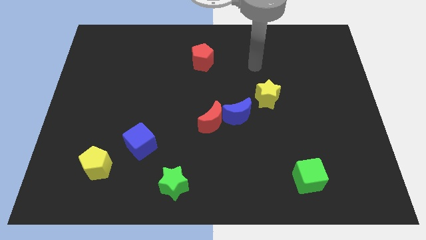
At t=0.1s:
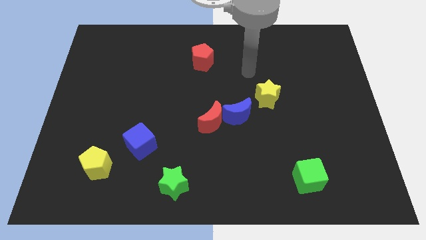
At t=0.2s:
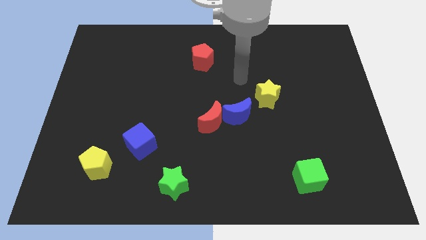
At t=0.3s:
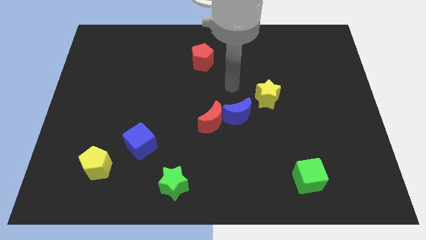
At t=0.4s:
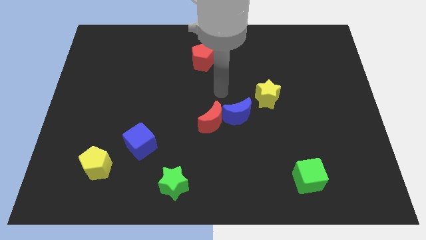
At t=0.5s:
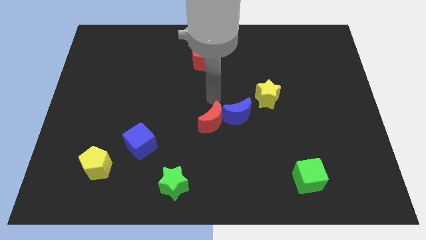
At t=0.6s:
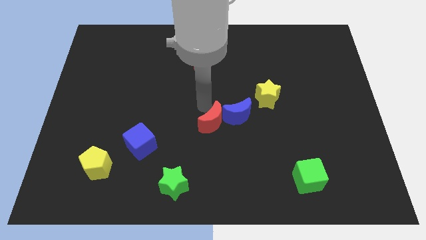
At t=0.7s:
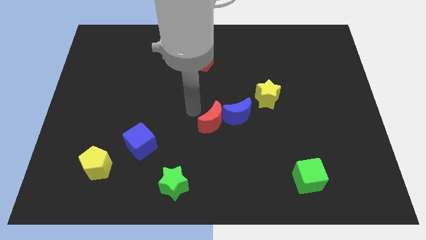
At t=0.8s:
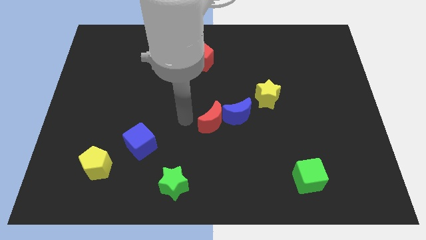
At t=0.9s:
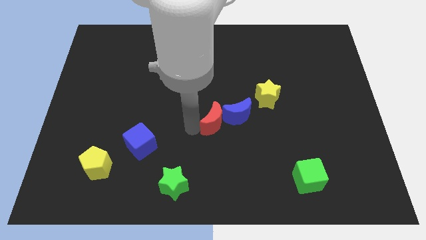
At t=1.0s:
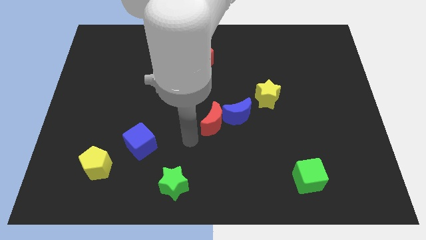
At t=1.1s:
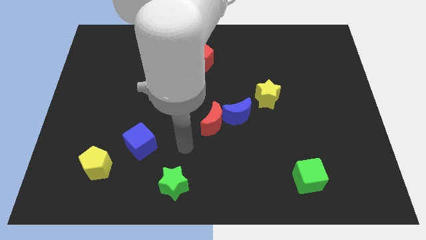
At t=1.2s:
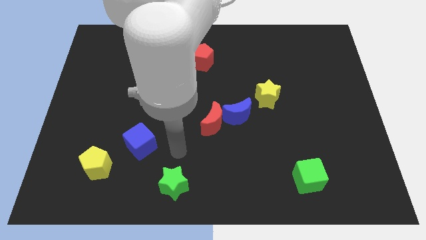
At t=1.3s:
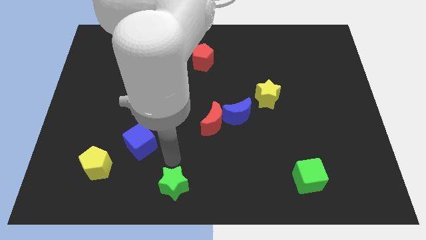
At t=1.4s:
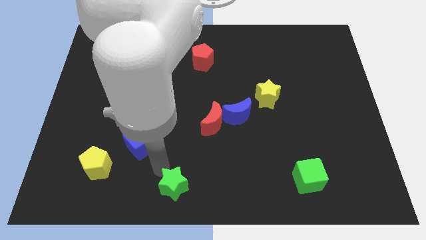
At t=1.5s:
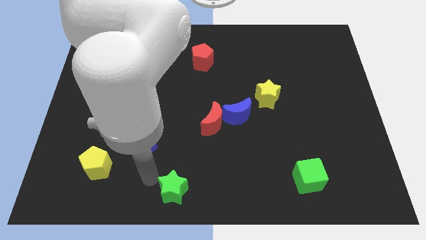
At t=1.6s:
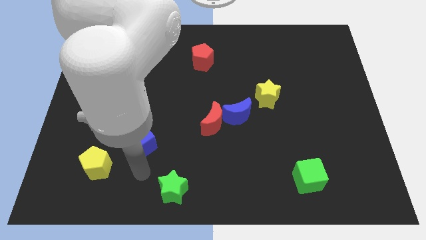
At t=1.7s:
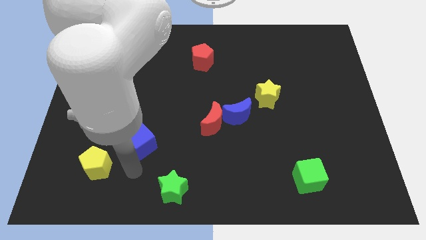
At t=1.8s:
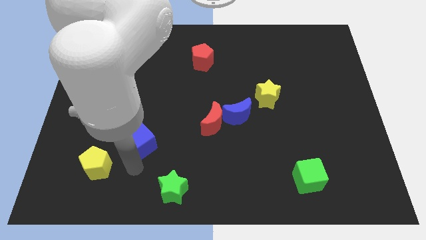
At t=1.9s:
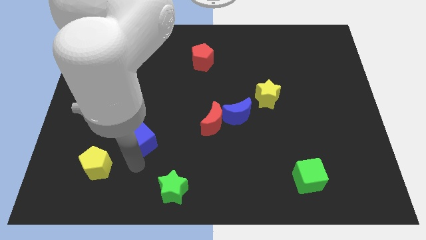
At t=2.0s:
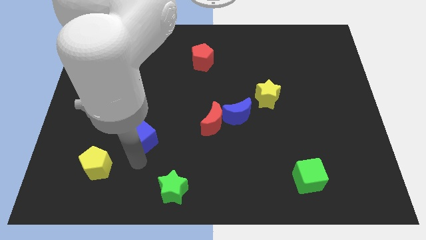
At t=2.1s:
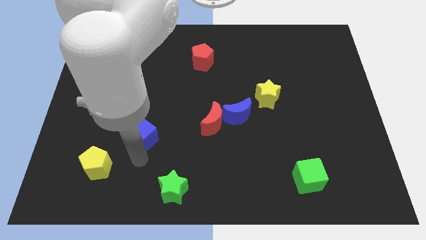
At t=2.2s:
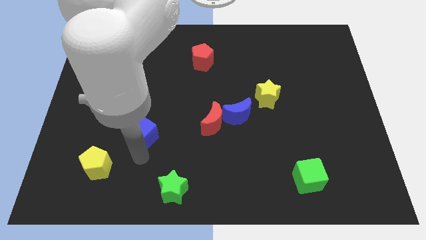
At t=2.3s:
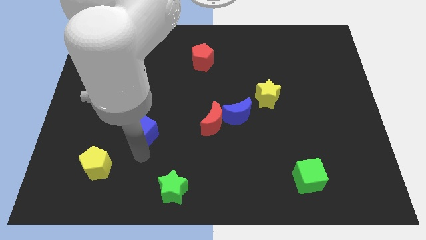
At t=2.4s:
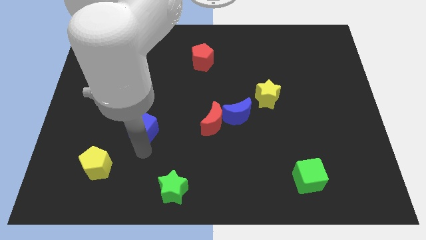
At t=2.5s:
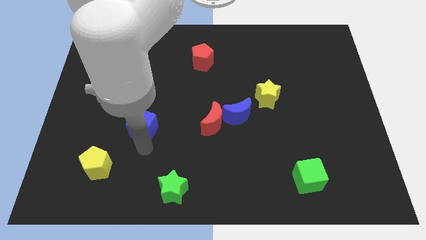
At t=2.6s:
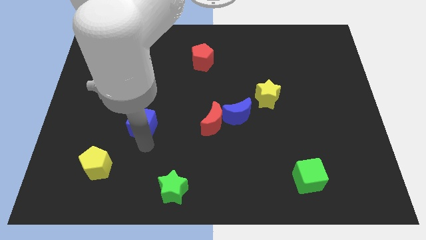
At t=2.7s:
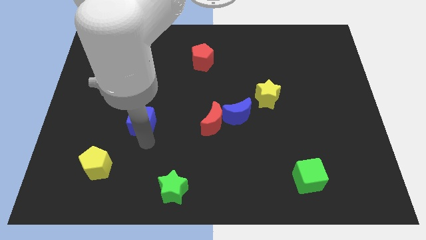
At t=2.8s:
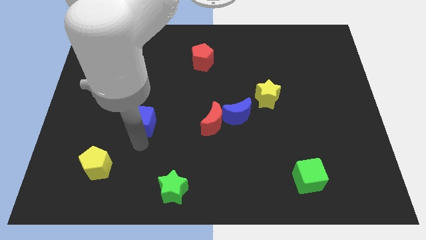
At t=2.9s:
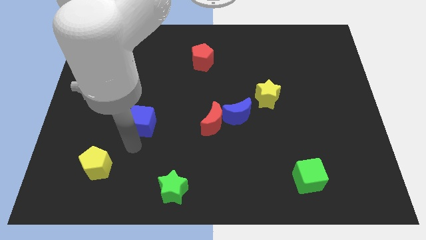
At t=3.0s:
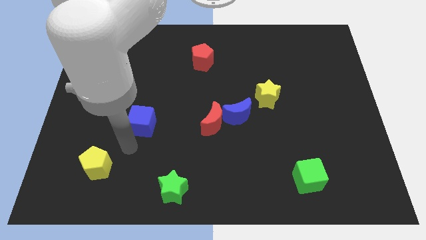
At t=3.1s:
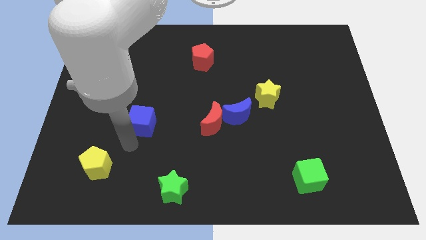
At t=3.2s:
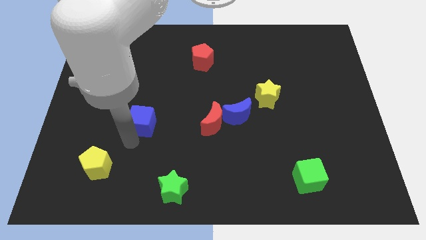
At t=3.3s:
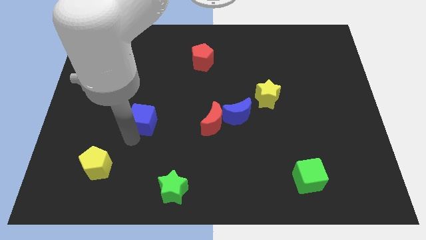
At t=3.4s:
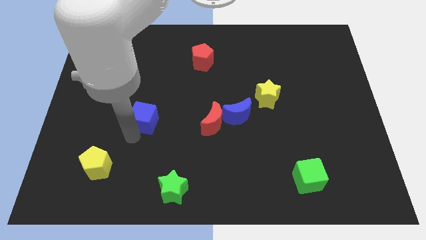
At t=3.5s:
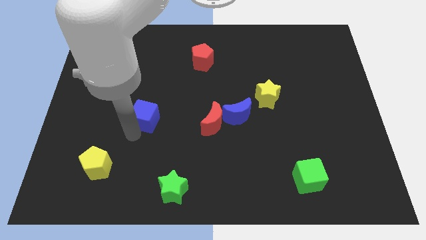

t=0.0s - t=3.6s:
move the blue cube up slightly

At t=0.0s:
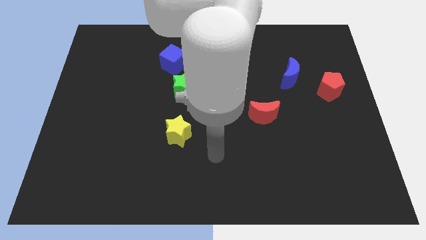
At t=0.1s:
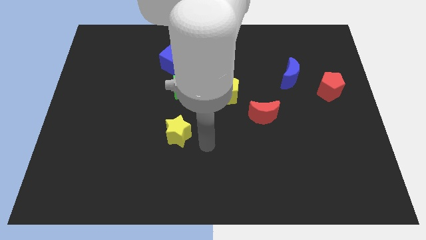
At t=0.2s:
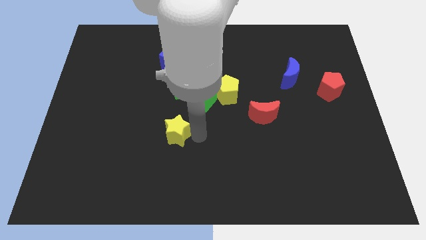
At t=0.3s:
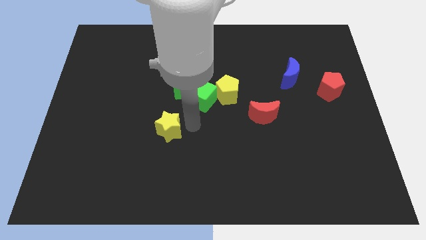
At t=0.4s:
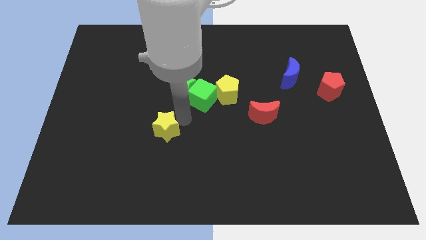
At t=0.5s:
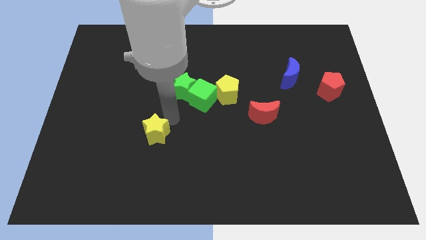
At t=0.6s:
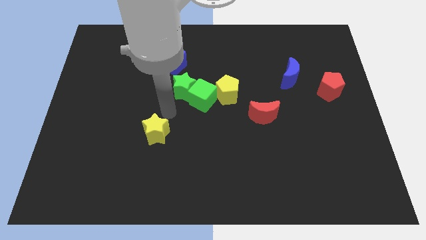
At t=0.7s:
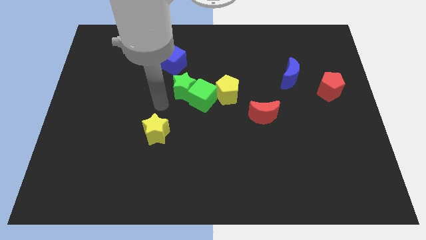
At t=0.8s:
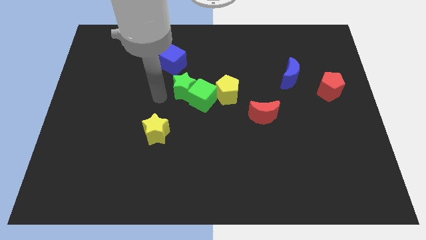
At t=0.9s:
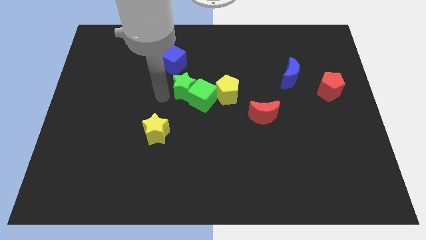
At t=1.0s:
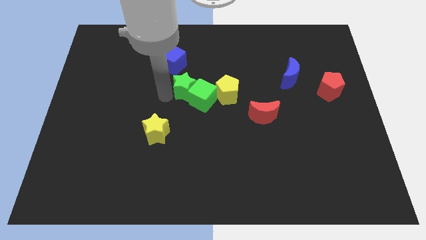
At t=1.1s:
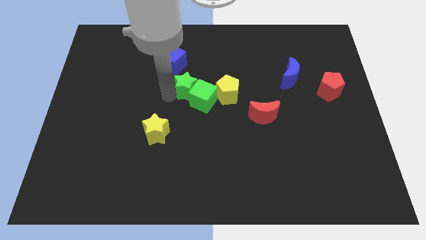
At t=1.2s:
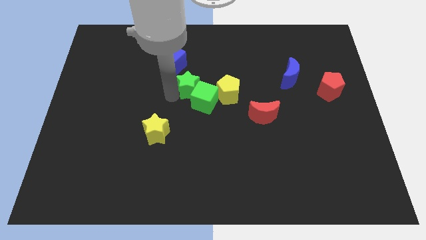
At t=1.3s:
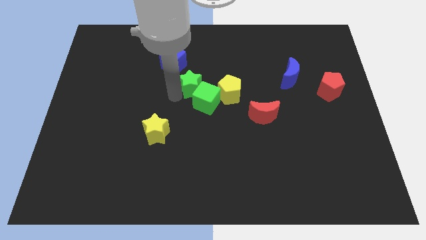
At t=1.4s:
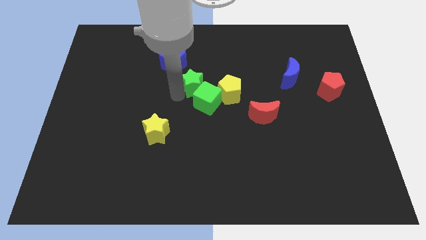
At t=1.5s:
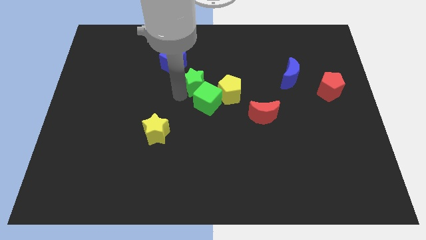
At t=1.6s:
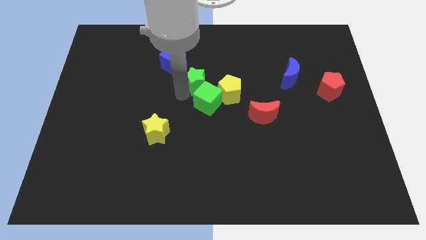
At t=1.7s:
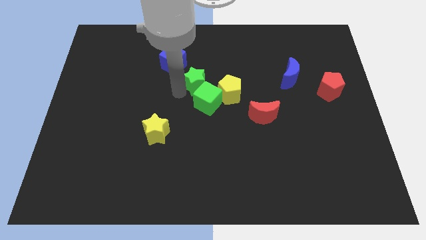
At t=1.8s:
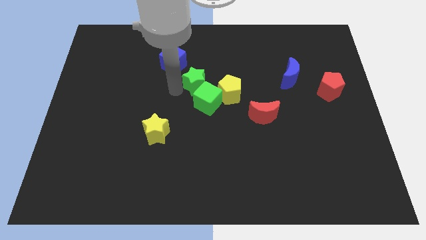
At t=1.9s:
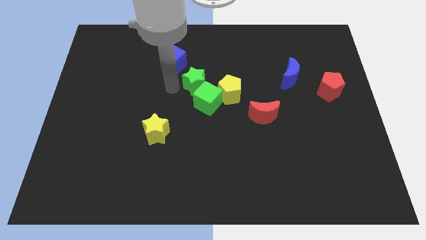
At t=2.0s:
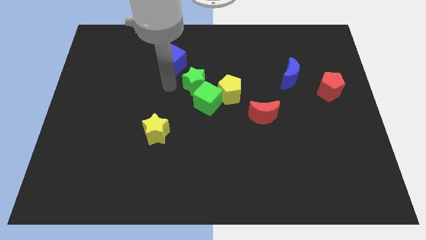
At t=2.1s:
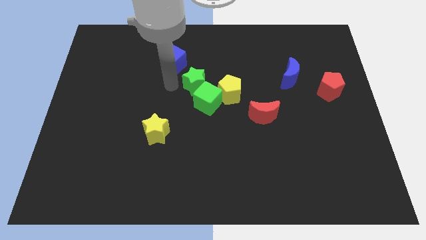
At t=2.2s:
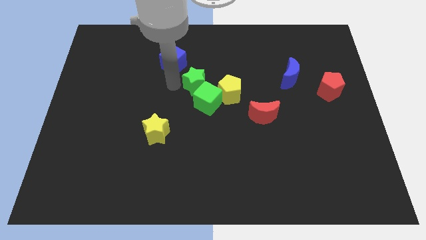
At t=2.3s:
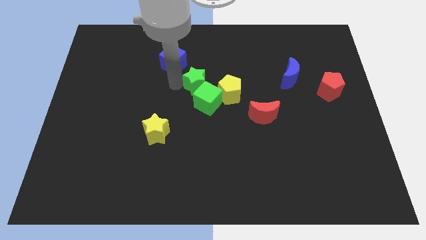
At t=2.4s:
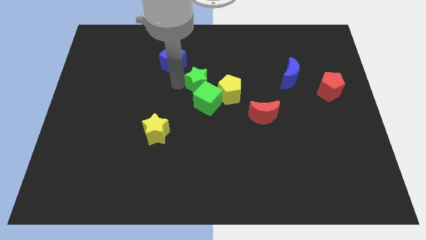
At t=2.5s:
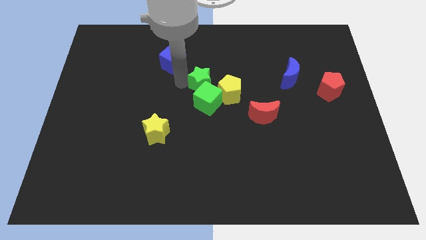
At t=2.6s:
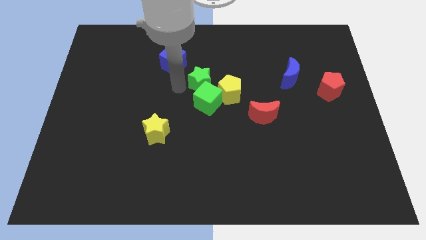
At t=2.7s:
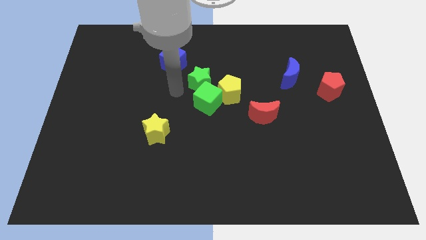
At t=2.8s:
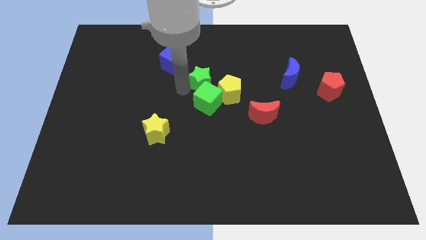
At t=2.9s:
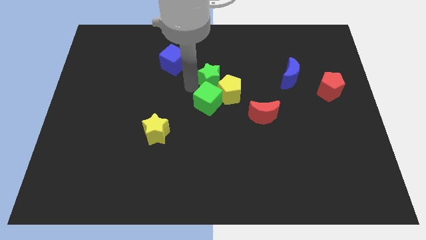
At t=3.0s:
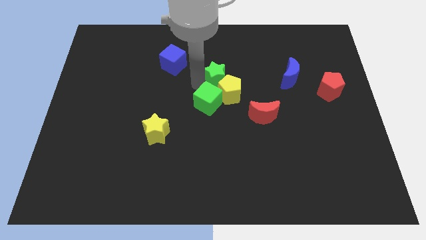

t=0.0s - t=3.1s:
slightly move the green star right

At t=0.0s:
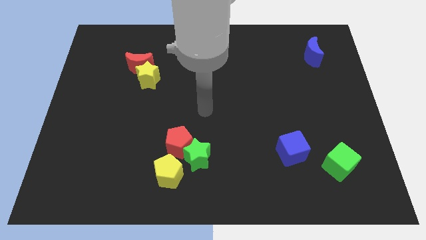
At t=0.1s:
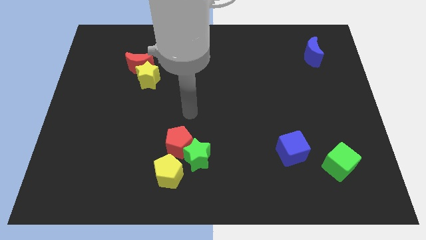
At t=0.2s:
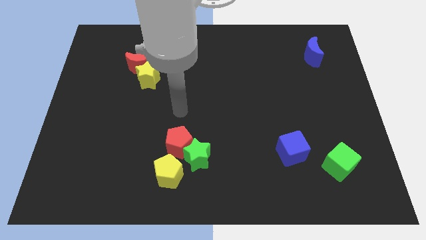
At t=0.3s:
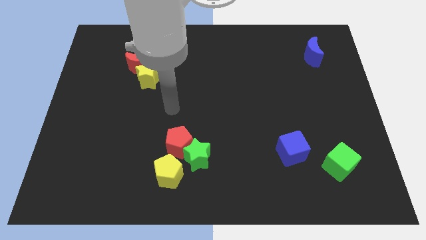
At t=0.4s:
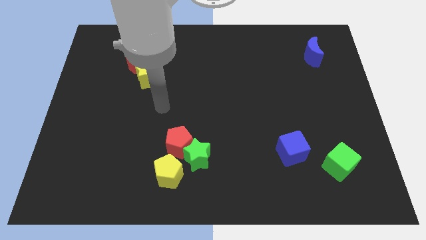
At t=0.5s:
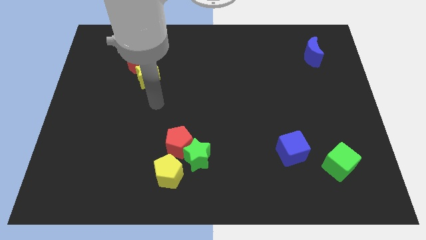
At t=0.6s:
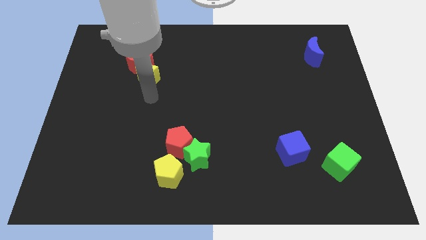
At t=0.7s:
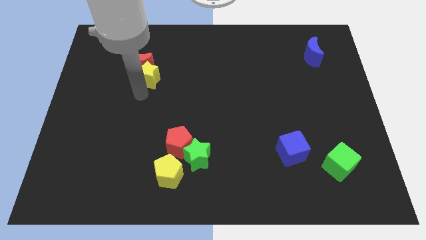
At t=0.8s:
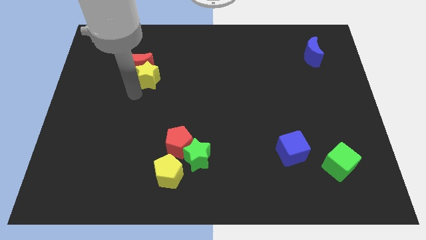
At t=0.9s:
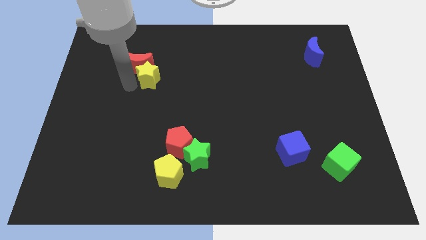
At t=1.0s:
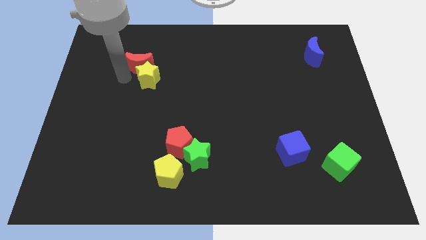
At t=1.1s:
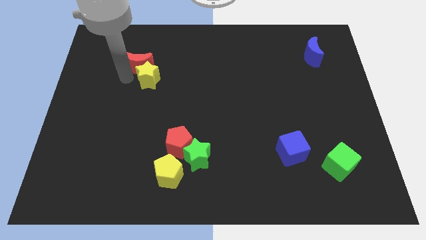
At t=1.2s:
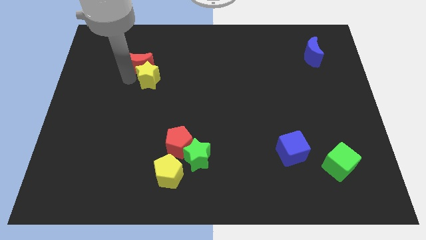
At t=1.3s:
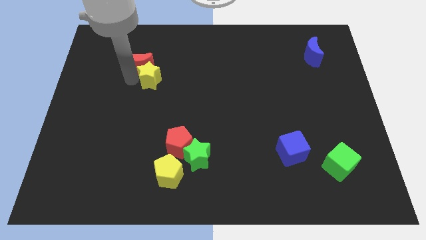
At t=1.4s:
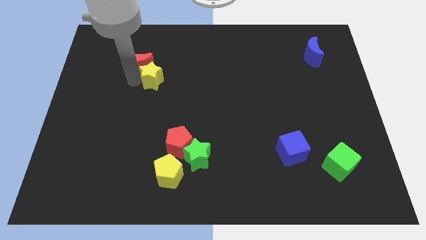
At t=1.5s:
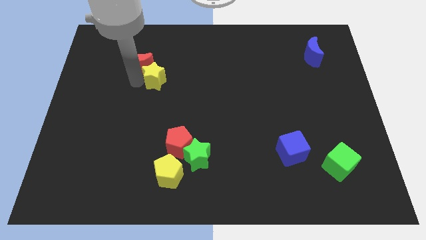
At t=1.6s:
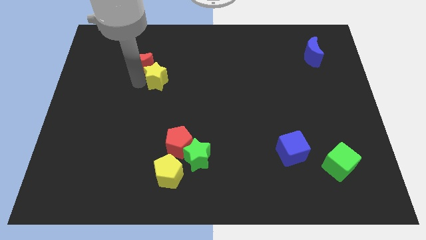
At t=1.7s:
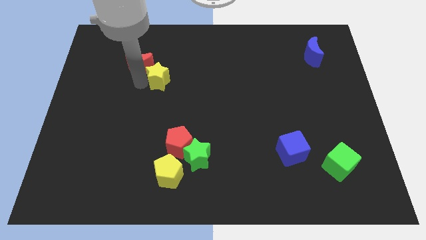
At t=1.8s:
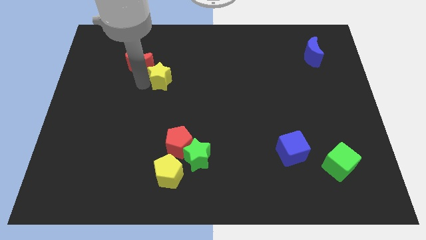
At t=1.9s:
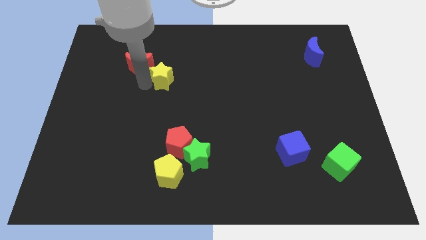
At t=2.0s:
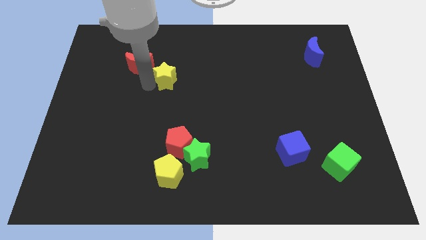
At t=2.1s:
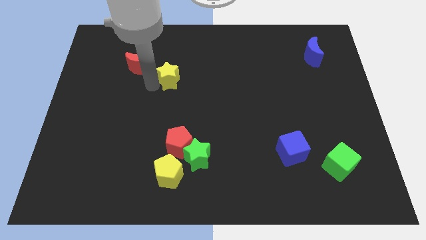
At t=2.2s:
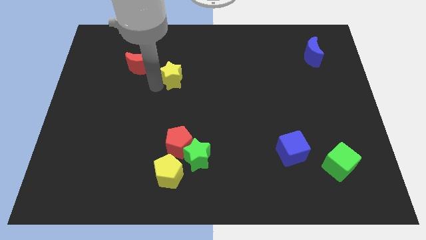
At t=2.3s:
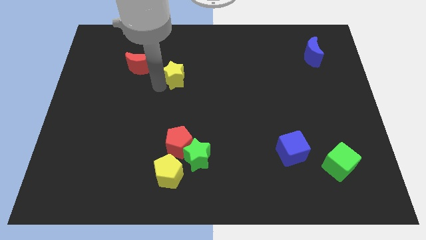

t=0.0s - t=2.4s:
slightly slide the yellow star to the right
